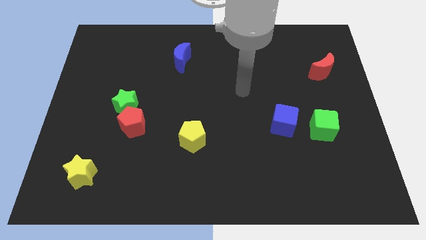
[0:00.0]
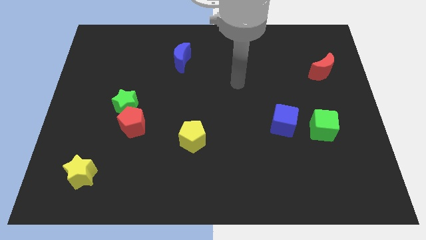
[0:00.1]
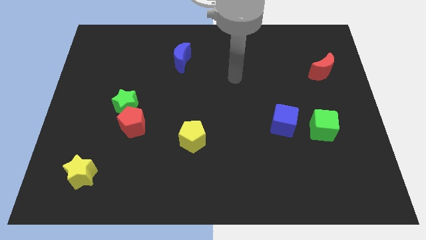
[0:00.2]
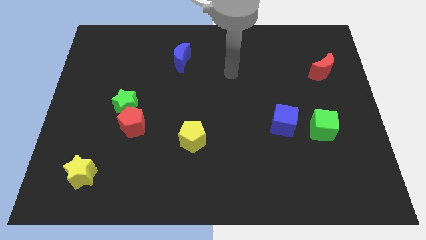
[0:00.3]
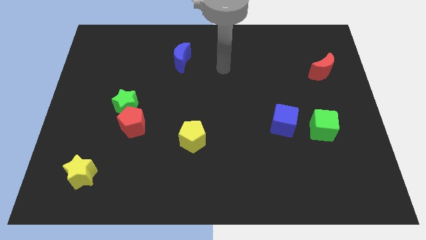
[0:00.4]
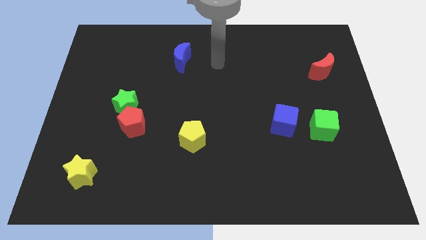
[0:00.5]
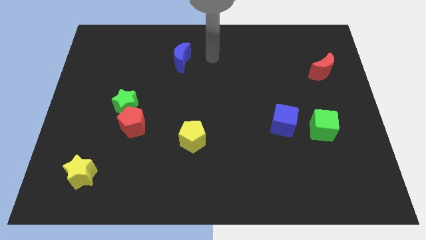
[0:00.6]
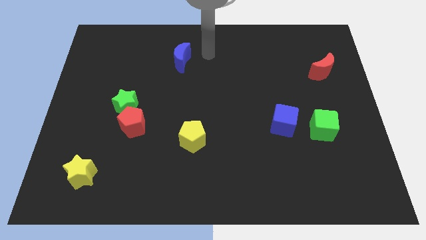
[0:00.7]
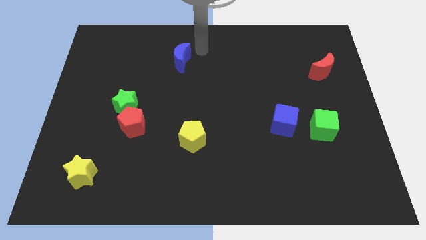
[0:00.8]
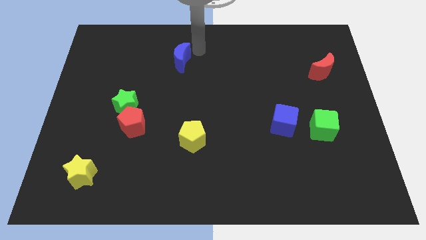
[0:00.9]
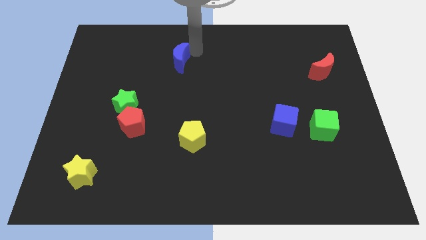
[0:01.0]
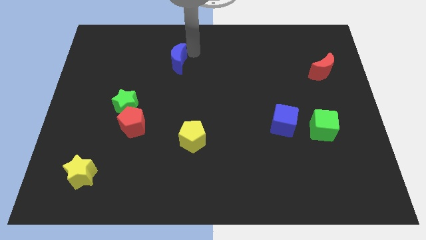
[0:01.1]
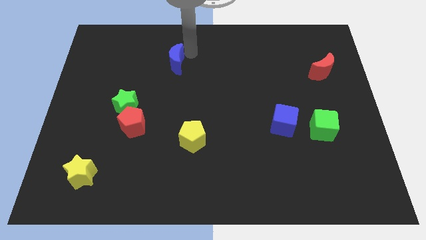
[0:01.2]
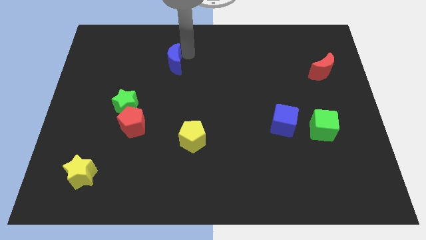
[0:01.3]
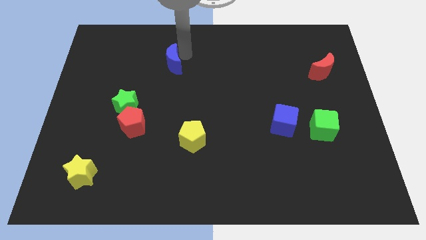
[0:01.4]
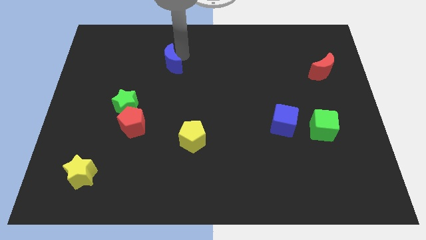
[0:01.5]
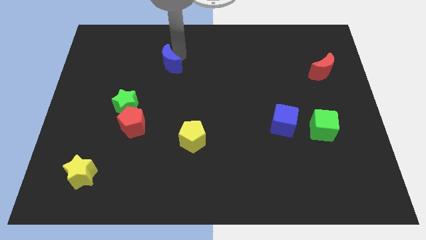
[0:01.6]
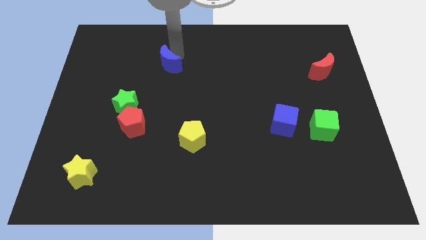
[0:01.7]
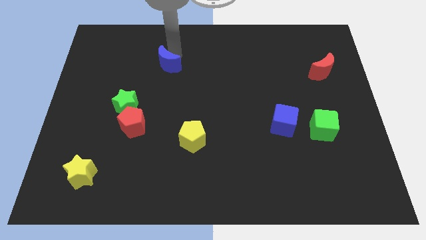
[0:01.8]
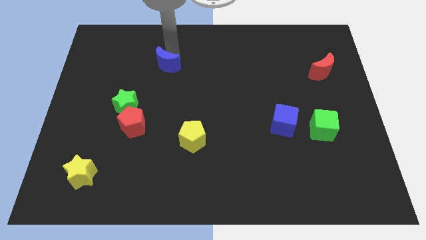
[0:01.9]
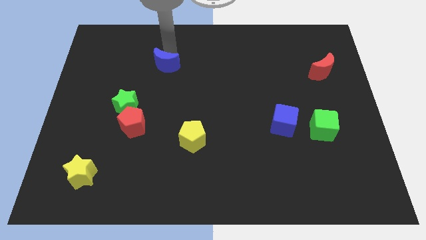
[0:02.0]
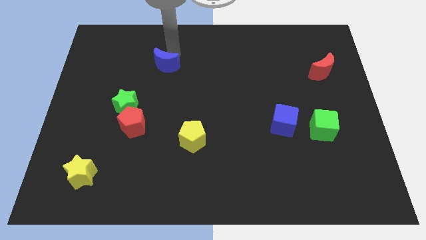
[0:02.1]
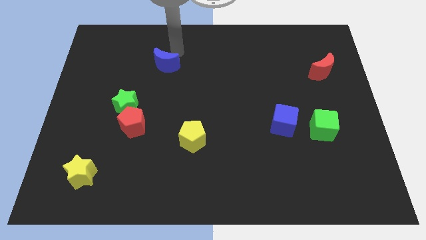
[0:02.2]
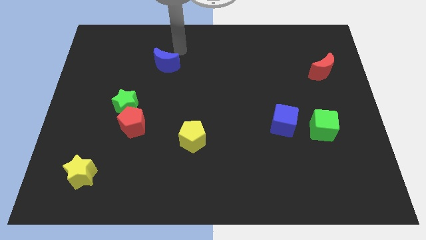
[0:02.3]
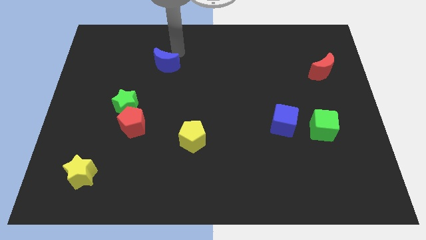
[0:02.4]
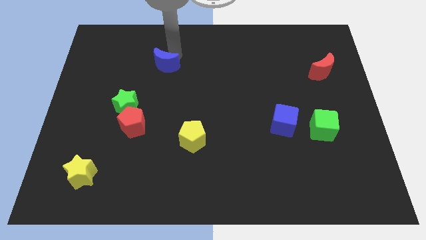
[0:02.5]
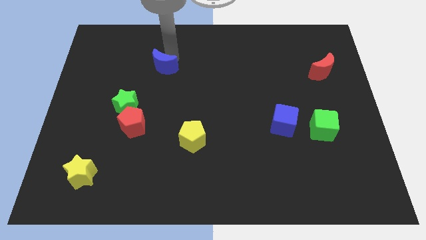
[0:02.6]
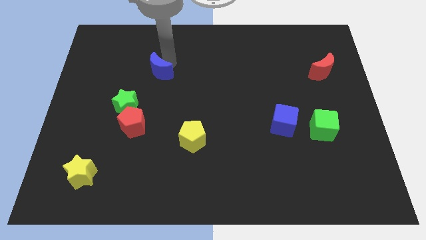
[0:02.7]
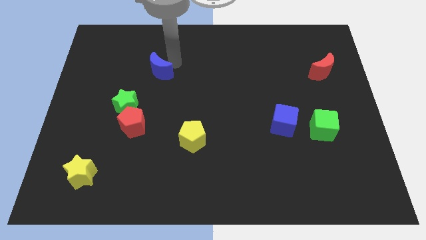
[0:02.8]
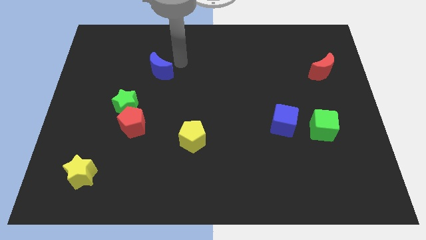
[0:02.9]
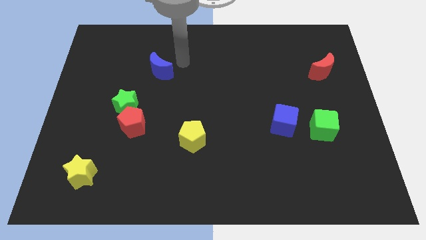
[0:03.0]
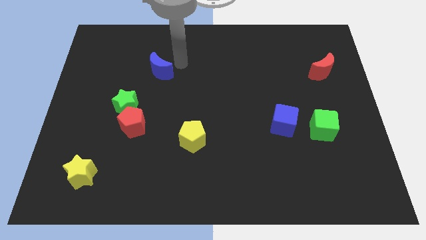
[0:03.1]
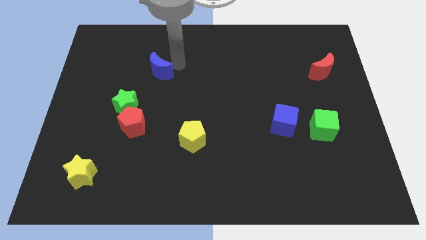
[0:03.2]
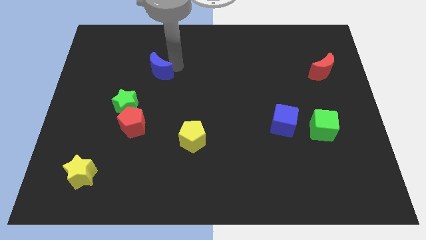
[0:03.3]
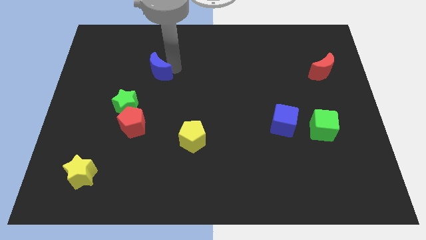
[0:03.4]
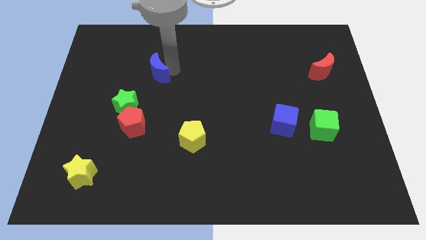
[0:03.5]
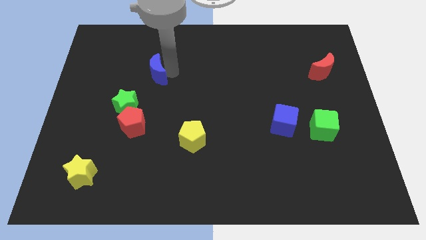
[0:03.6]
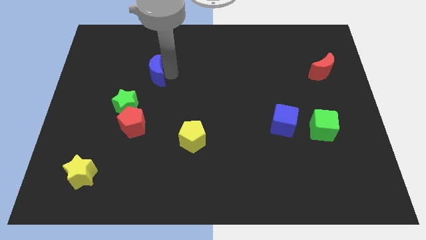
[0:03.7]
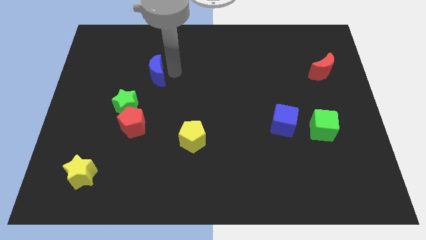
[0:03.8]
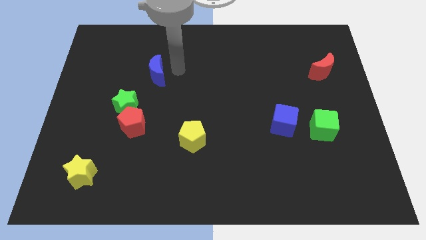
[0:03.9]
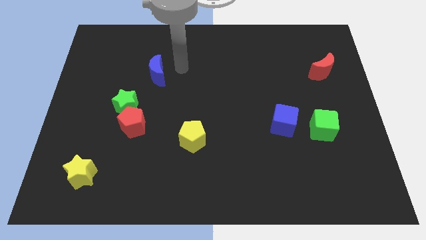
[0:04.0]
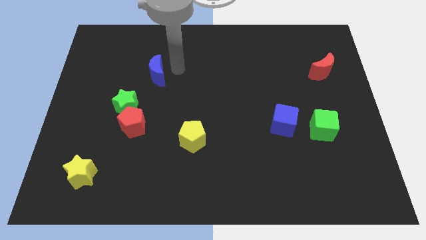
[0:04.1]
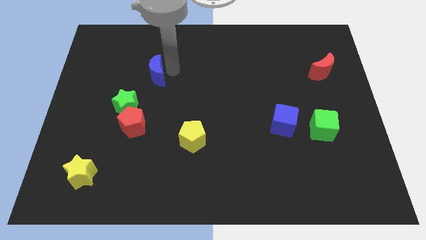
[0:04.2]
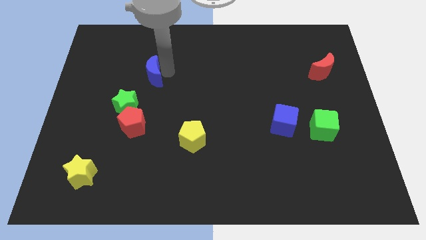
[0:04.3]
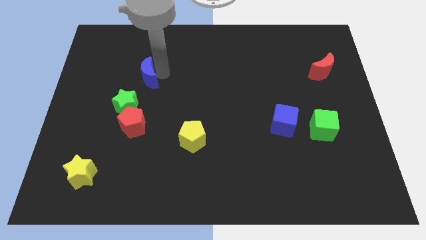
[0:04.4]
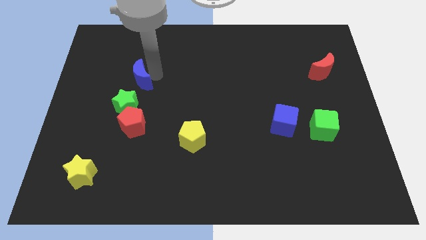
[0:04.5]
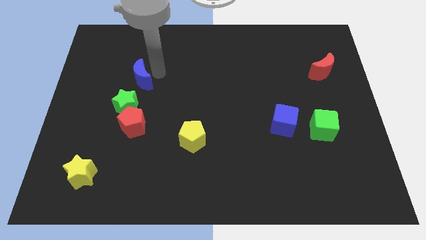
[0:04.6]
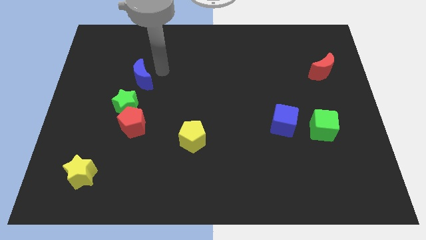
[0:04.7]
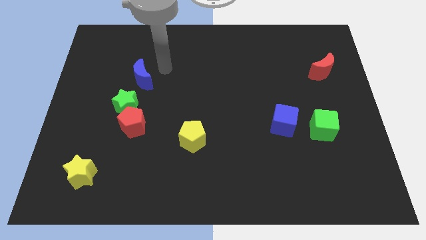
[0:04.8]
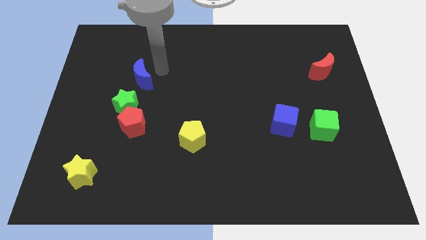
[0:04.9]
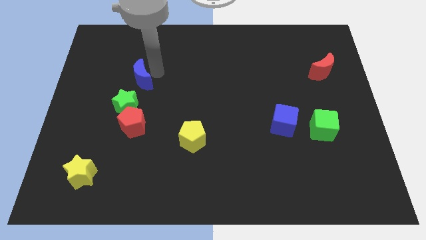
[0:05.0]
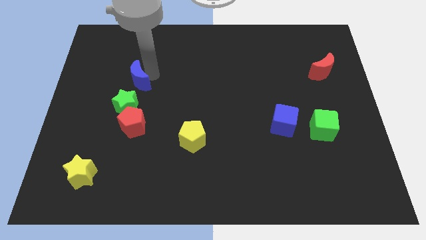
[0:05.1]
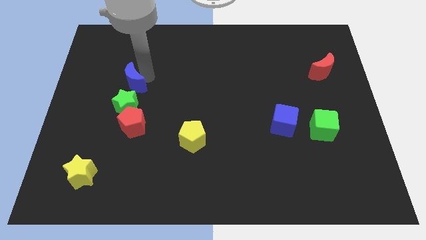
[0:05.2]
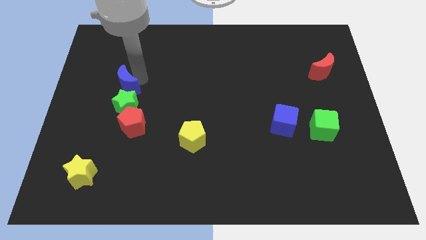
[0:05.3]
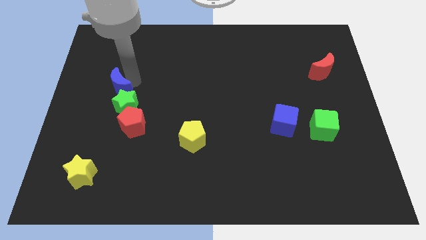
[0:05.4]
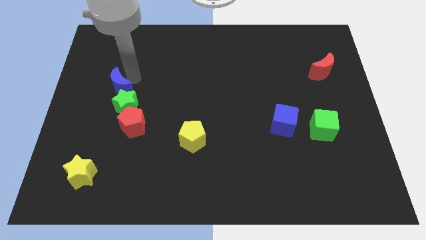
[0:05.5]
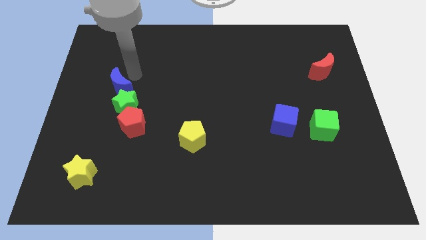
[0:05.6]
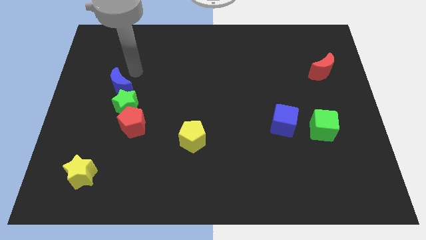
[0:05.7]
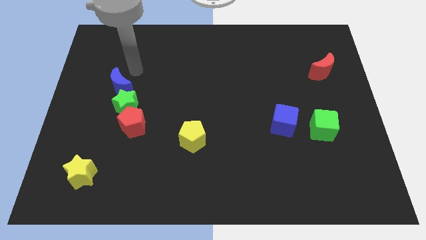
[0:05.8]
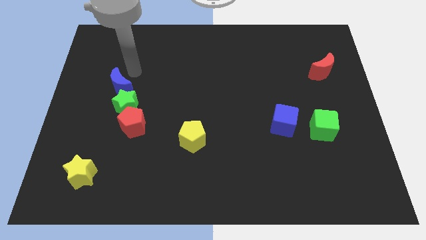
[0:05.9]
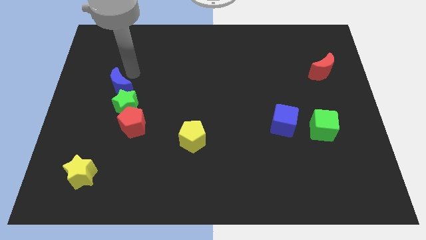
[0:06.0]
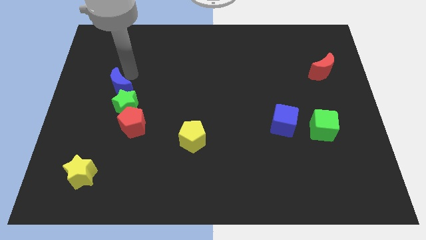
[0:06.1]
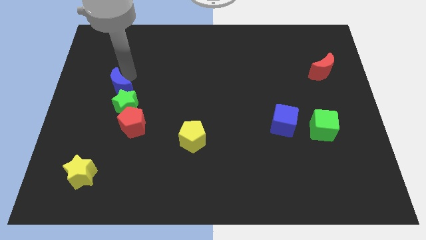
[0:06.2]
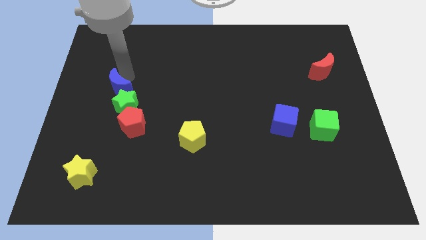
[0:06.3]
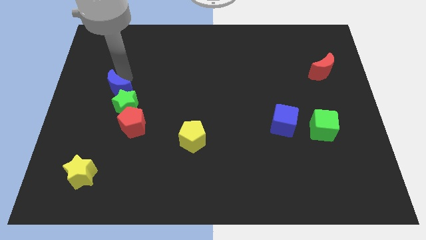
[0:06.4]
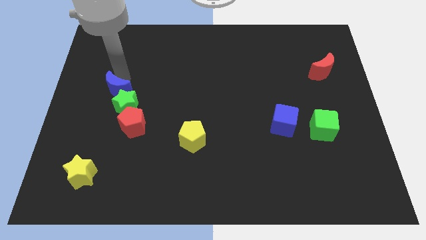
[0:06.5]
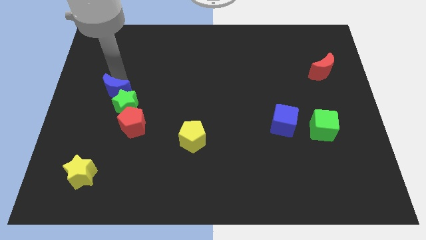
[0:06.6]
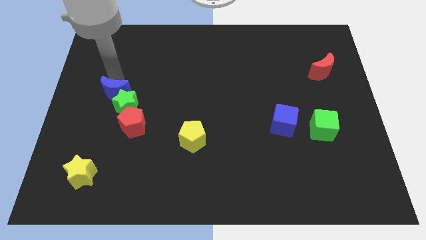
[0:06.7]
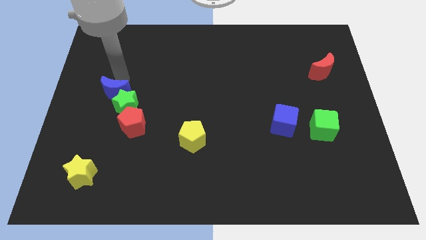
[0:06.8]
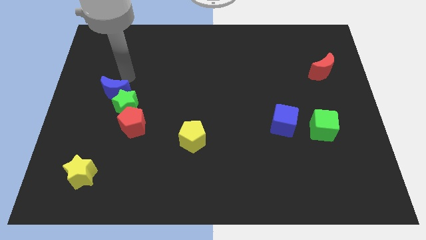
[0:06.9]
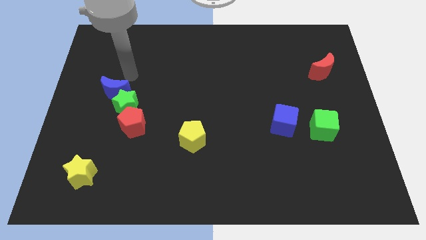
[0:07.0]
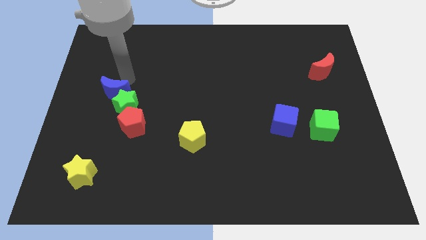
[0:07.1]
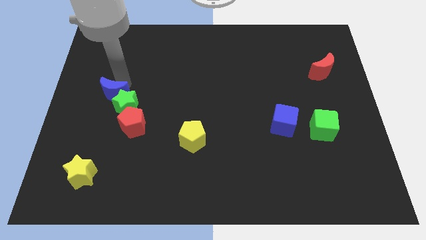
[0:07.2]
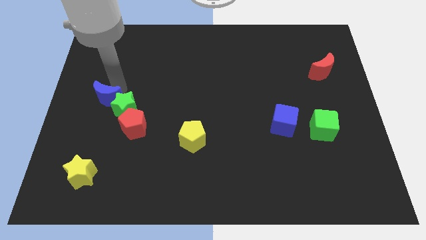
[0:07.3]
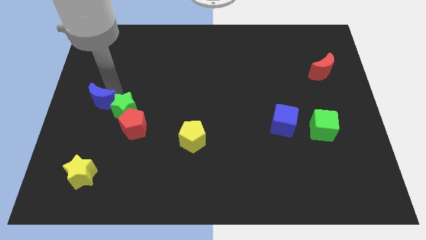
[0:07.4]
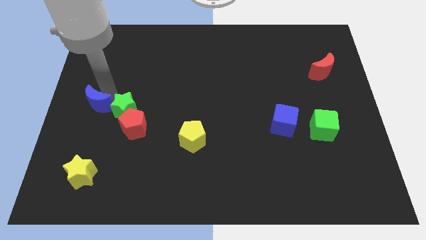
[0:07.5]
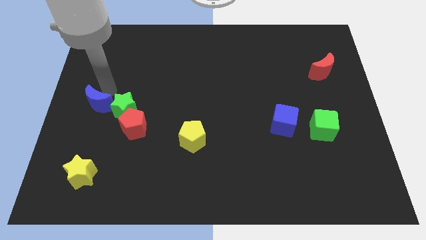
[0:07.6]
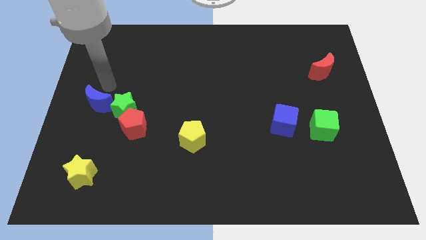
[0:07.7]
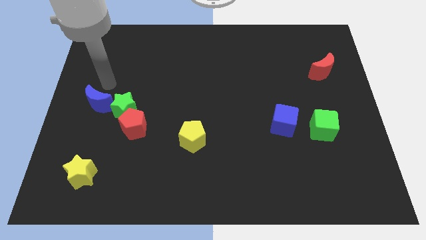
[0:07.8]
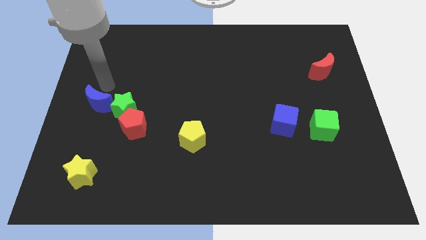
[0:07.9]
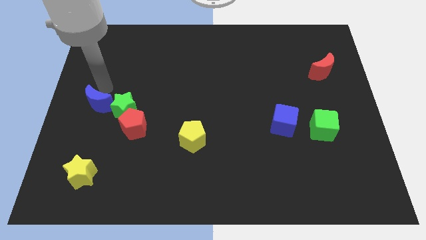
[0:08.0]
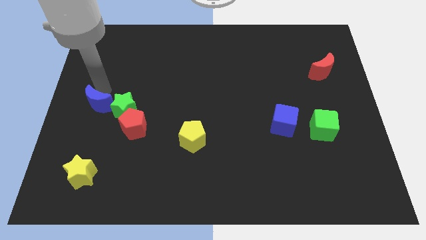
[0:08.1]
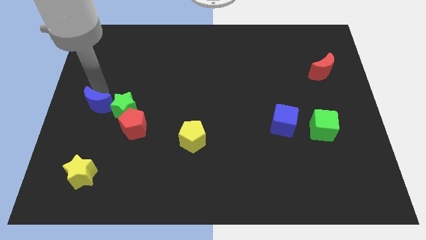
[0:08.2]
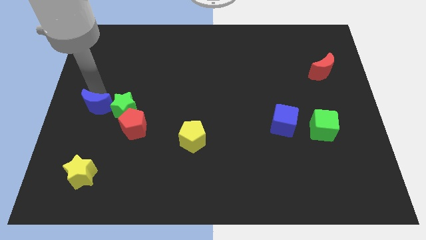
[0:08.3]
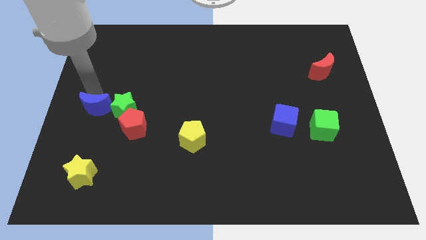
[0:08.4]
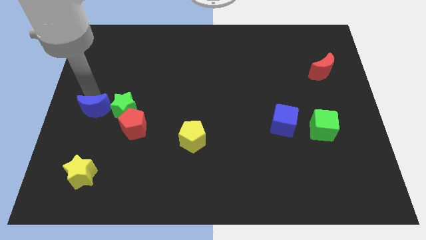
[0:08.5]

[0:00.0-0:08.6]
put the blue moon left of the red pentagon

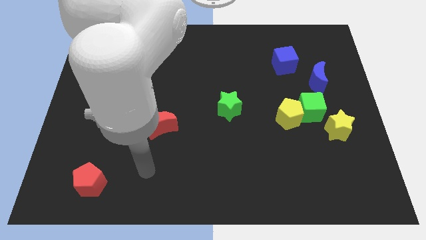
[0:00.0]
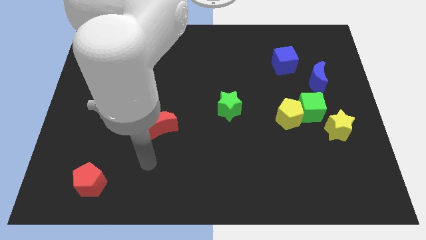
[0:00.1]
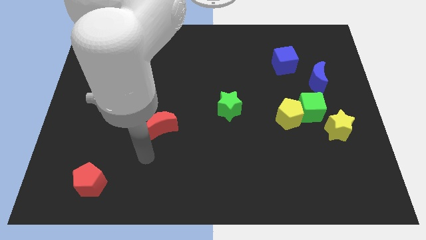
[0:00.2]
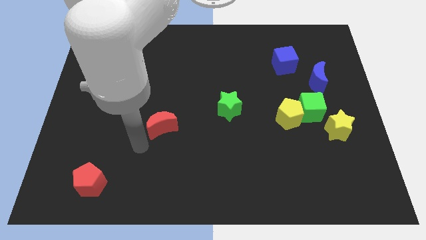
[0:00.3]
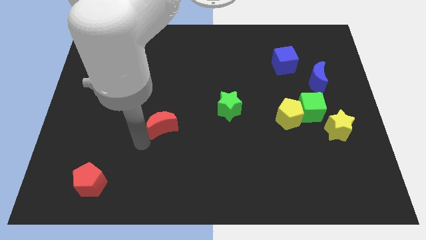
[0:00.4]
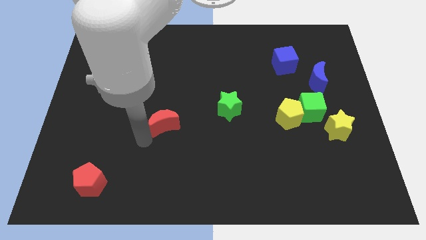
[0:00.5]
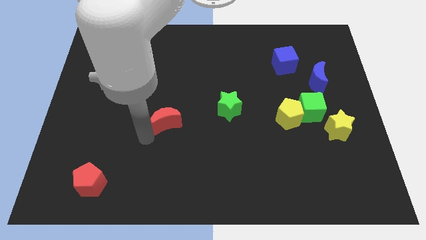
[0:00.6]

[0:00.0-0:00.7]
move the red moon left of the green star
